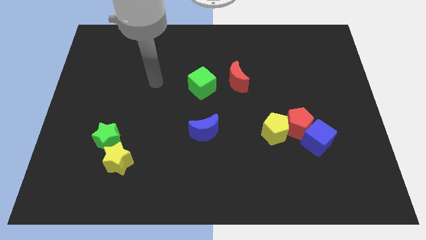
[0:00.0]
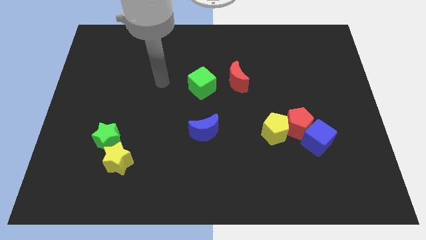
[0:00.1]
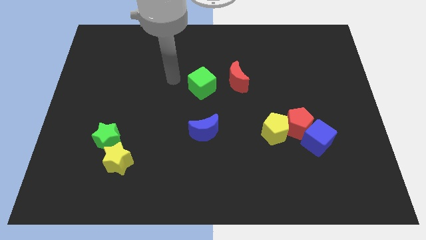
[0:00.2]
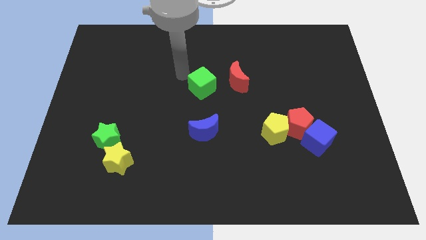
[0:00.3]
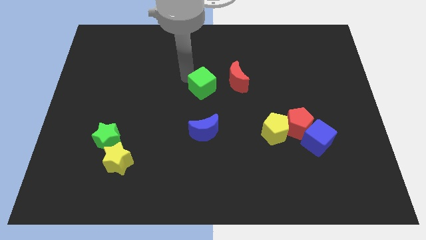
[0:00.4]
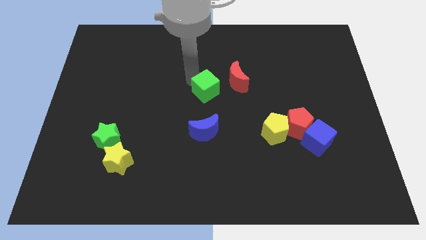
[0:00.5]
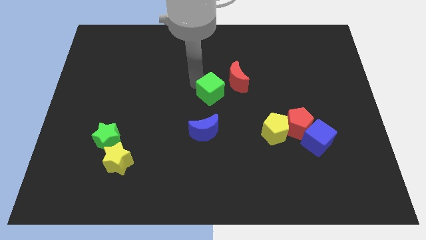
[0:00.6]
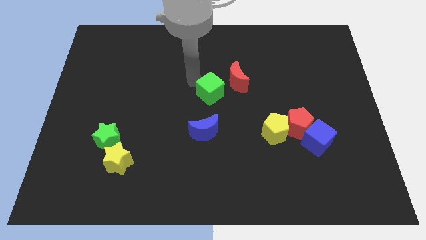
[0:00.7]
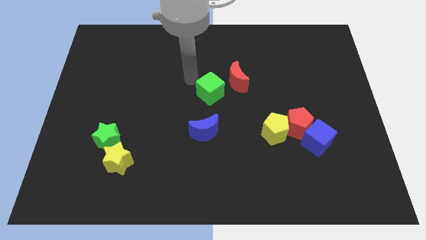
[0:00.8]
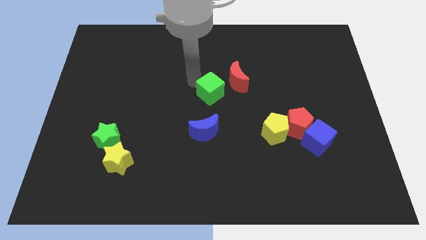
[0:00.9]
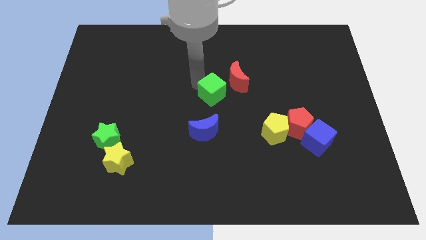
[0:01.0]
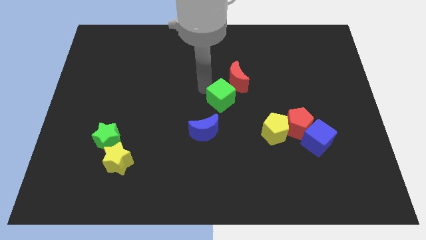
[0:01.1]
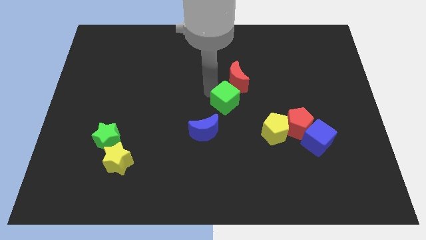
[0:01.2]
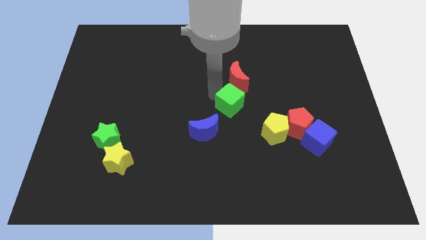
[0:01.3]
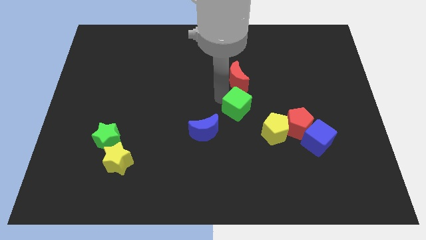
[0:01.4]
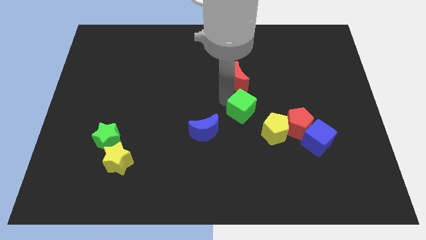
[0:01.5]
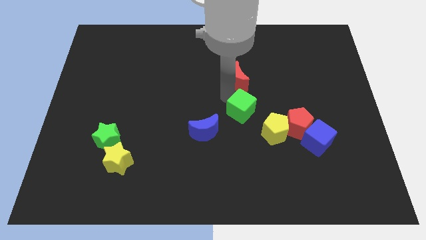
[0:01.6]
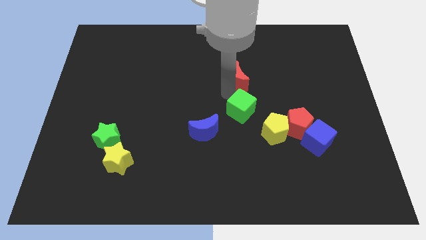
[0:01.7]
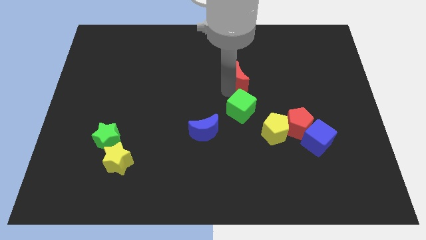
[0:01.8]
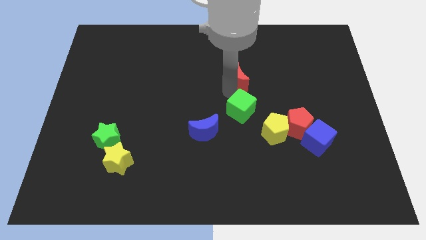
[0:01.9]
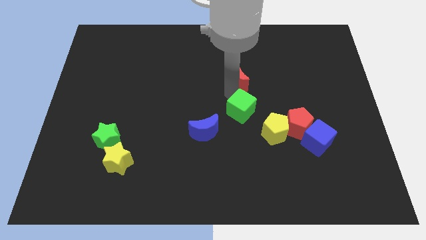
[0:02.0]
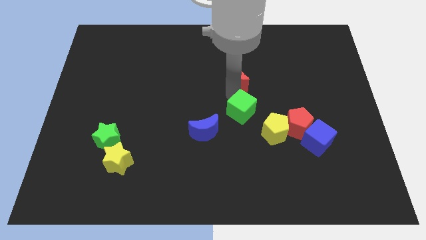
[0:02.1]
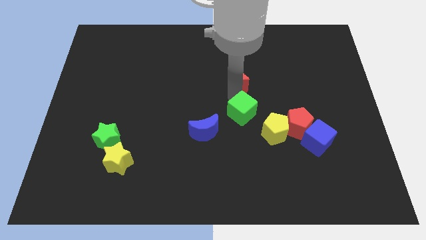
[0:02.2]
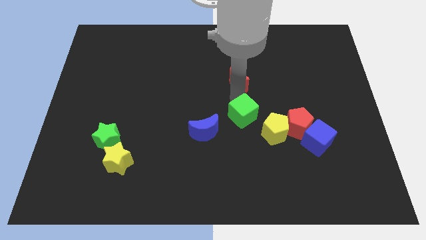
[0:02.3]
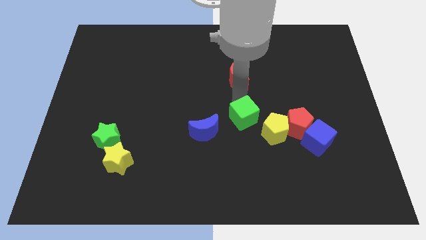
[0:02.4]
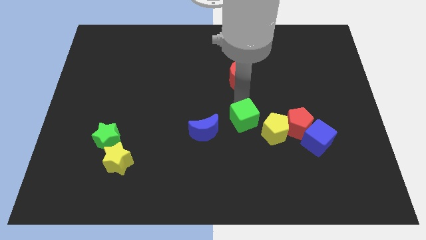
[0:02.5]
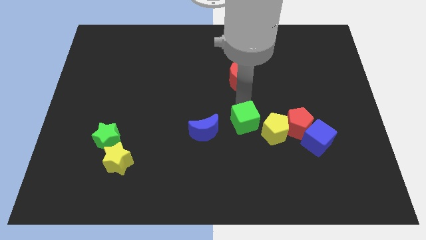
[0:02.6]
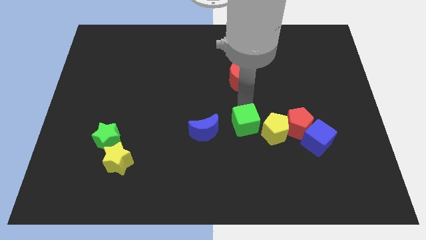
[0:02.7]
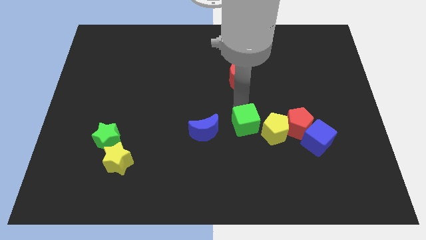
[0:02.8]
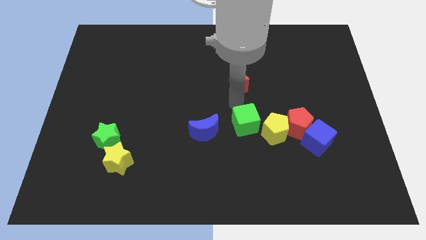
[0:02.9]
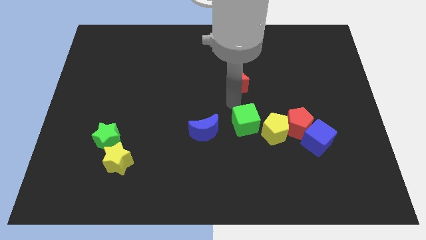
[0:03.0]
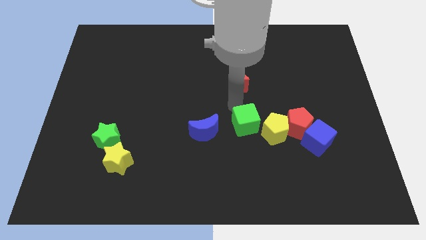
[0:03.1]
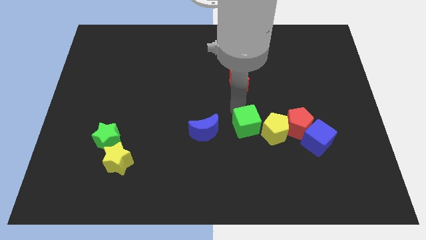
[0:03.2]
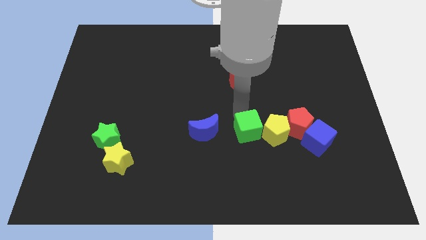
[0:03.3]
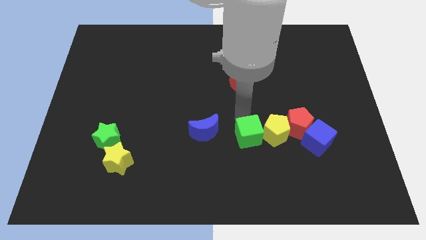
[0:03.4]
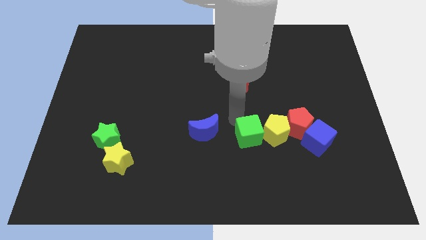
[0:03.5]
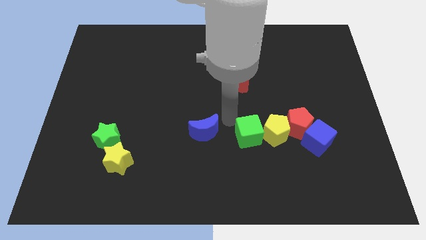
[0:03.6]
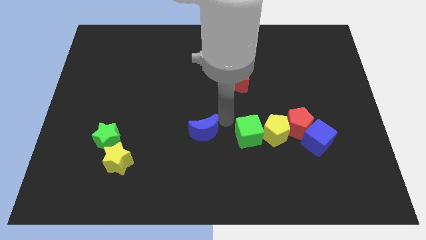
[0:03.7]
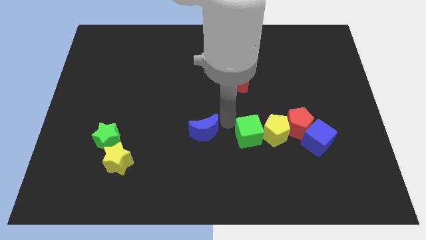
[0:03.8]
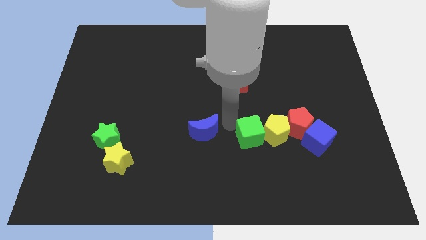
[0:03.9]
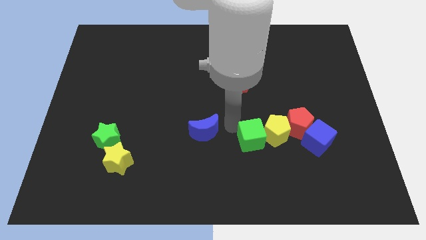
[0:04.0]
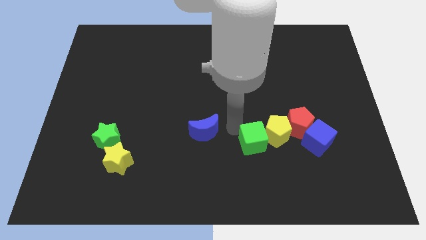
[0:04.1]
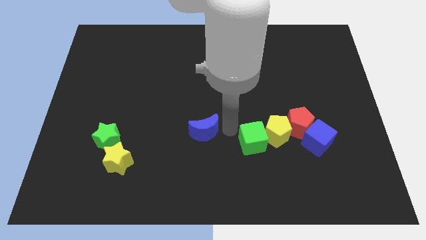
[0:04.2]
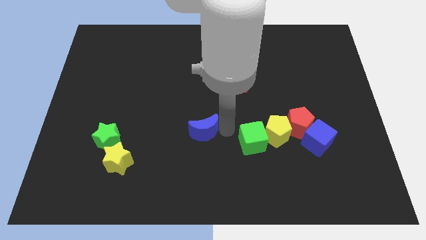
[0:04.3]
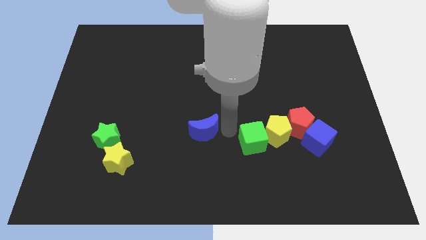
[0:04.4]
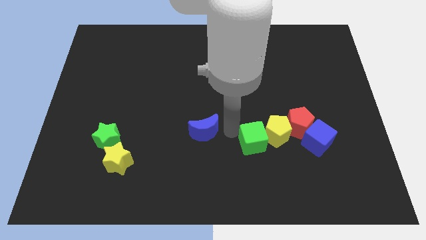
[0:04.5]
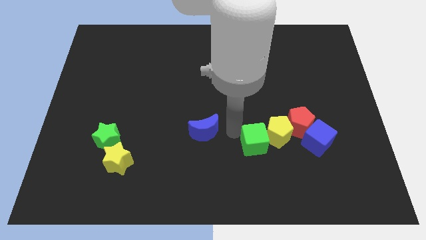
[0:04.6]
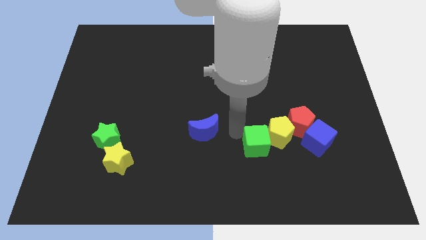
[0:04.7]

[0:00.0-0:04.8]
move the green cube downwards and then right

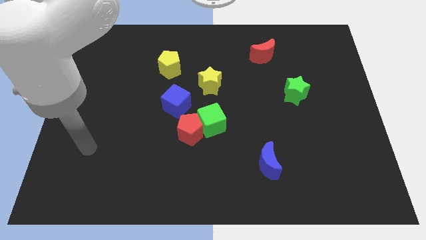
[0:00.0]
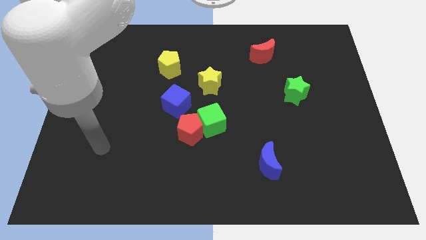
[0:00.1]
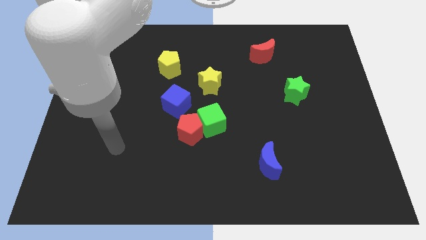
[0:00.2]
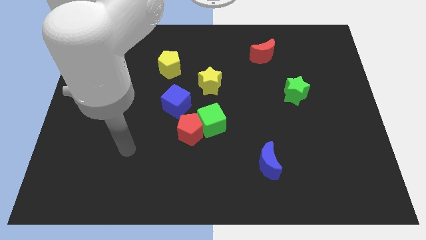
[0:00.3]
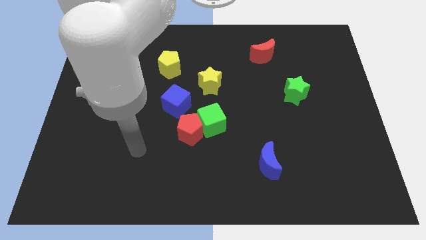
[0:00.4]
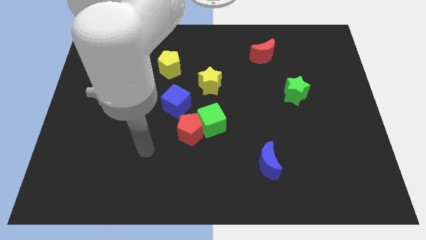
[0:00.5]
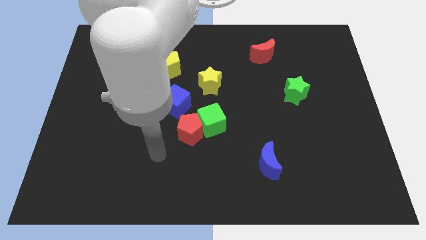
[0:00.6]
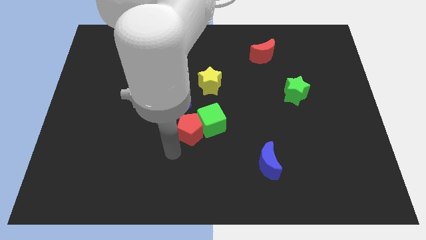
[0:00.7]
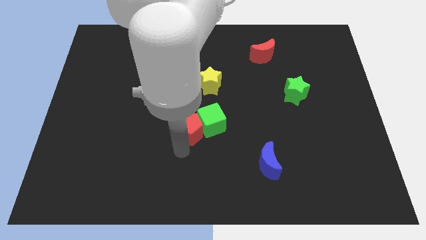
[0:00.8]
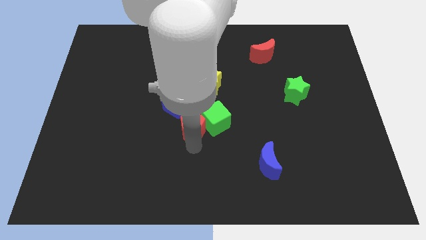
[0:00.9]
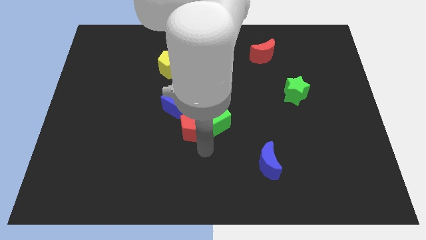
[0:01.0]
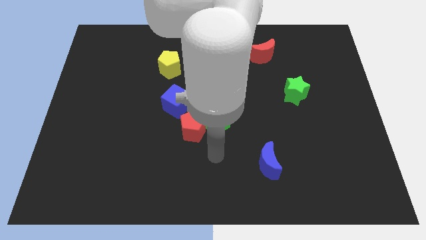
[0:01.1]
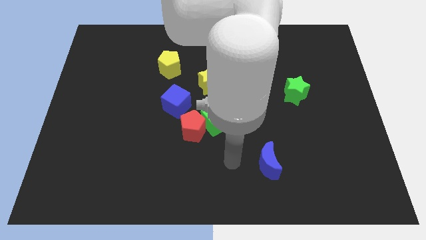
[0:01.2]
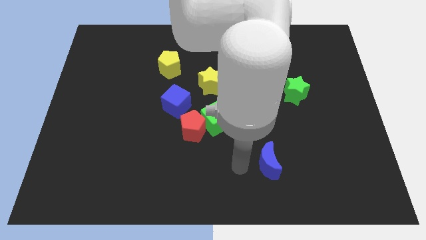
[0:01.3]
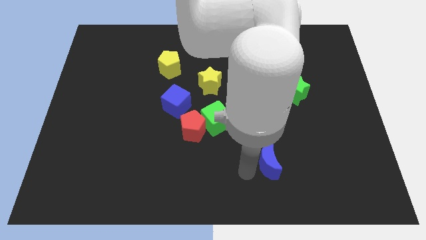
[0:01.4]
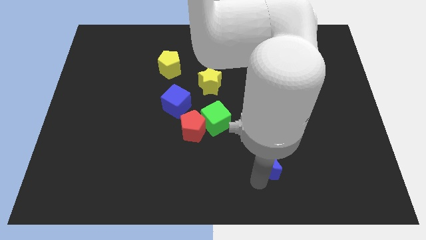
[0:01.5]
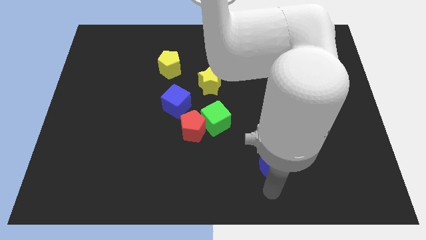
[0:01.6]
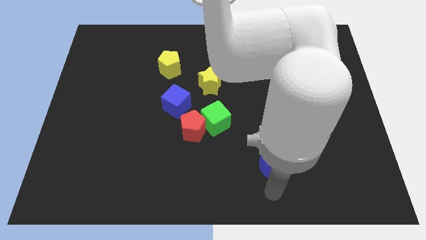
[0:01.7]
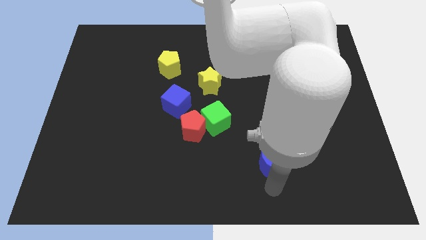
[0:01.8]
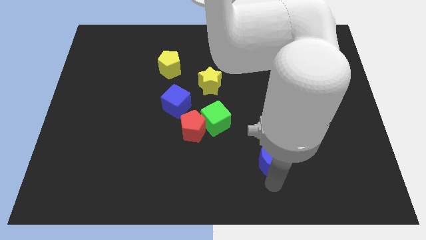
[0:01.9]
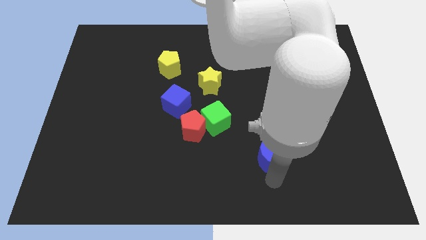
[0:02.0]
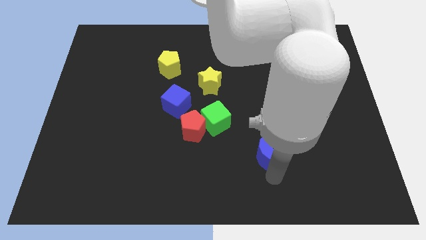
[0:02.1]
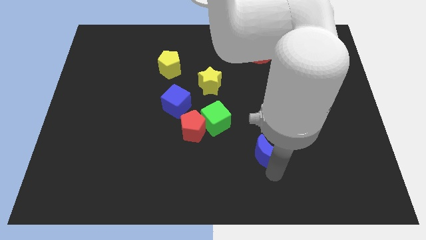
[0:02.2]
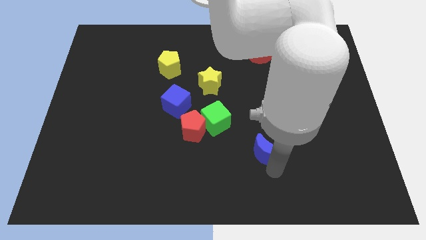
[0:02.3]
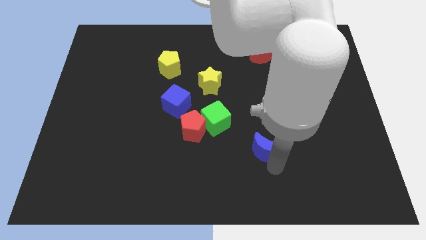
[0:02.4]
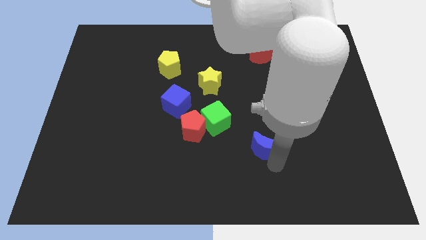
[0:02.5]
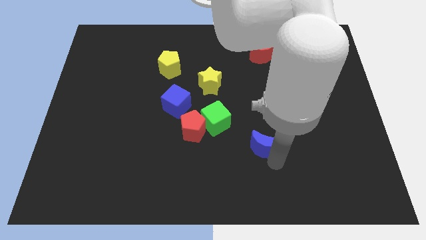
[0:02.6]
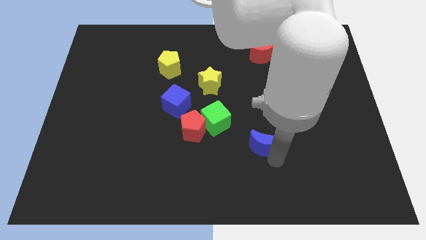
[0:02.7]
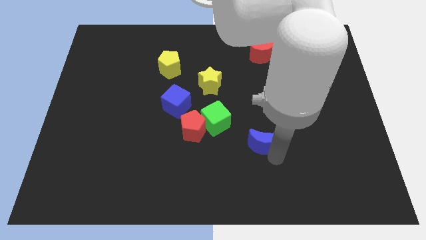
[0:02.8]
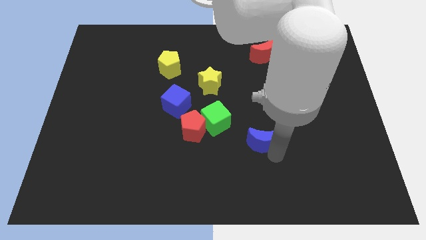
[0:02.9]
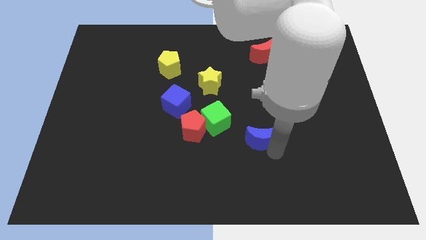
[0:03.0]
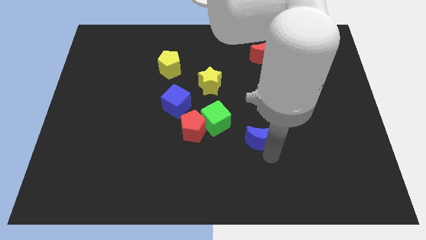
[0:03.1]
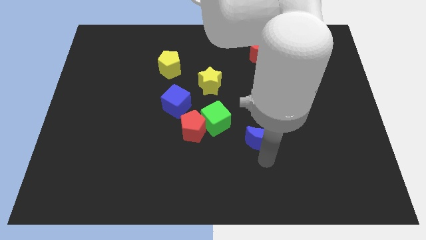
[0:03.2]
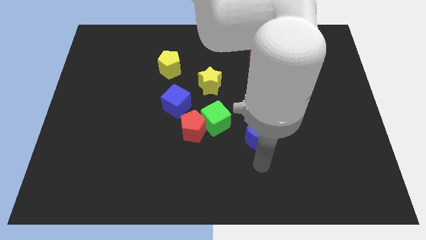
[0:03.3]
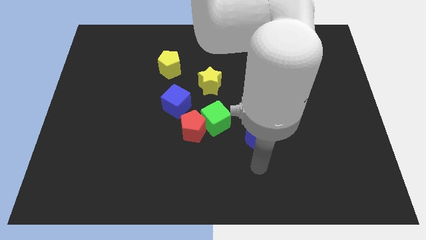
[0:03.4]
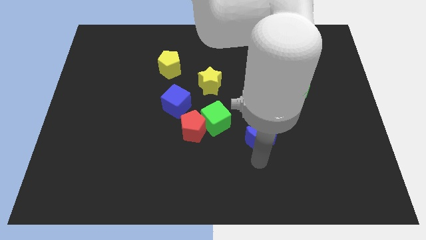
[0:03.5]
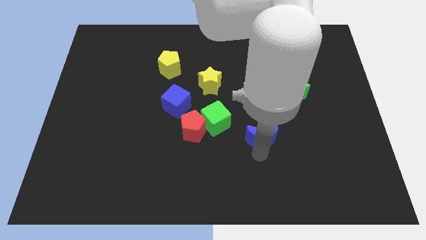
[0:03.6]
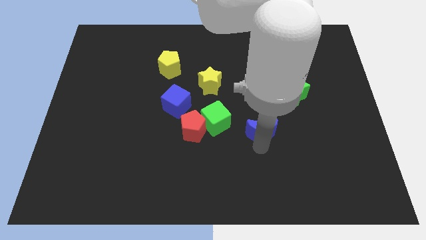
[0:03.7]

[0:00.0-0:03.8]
slide the blue moon up a little
